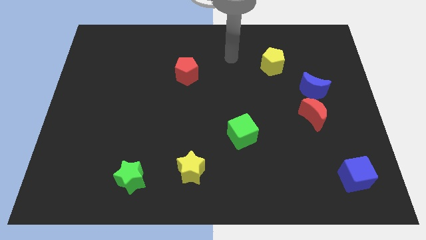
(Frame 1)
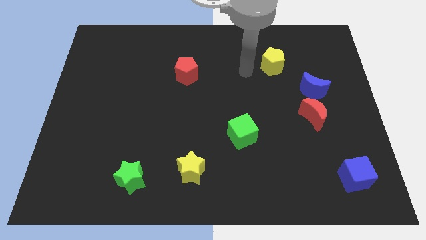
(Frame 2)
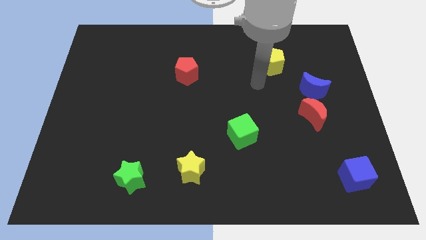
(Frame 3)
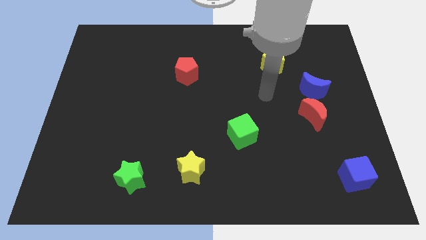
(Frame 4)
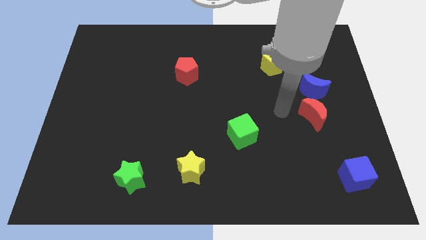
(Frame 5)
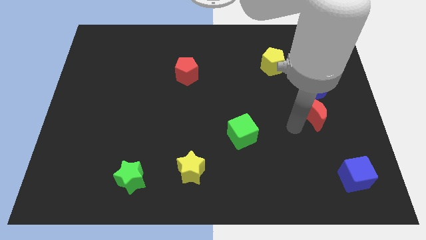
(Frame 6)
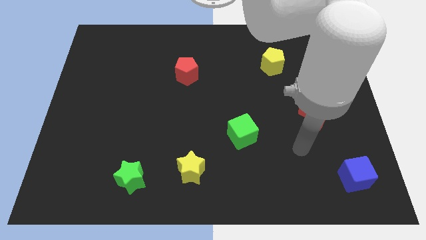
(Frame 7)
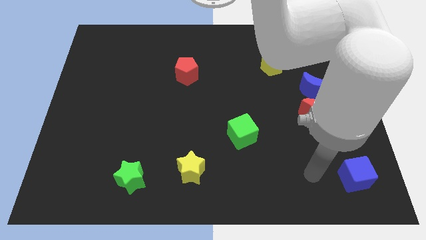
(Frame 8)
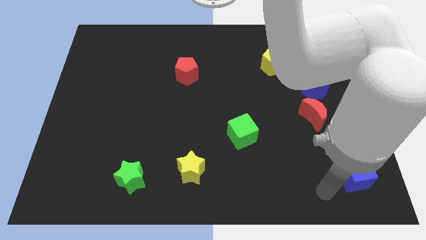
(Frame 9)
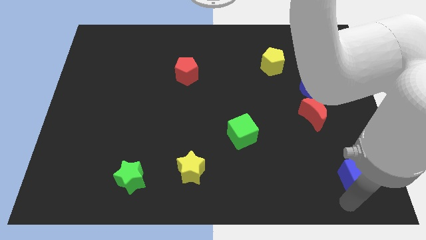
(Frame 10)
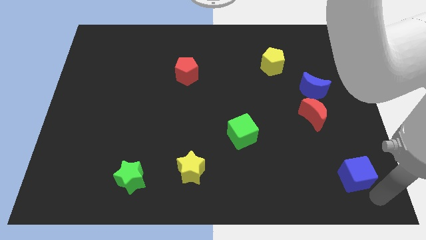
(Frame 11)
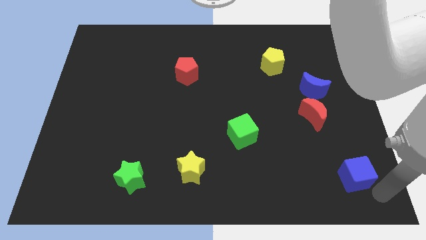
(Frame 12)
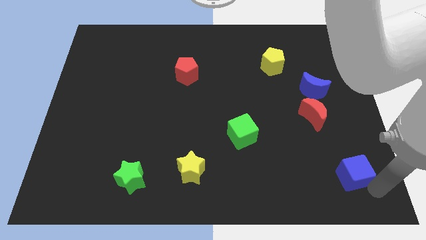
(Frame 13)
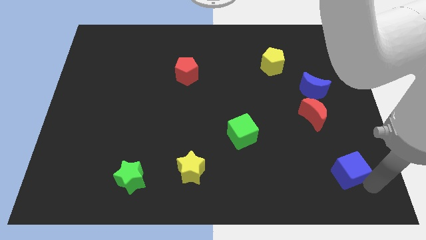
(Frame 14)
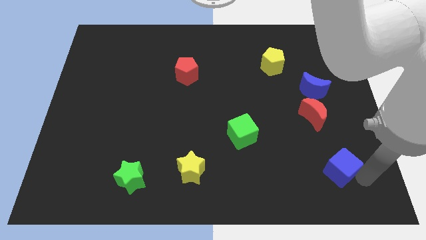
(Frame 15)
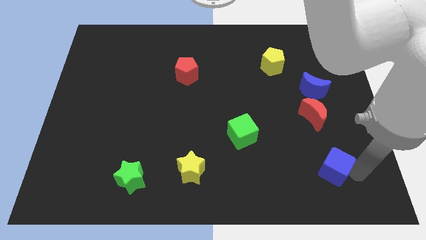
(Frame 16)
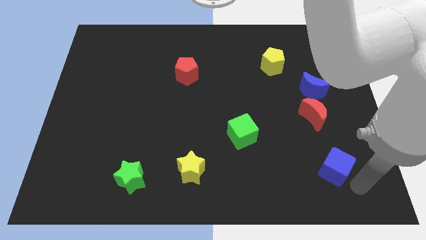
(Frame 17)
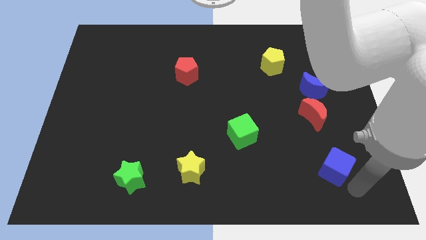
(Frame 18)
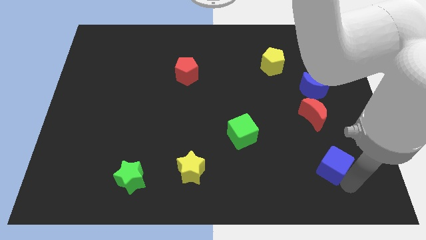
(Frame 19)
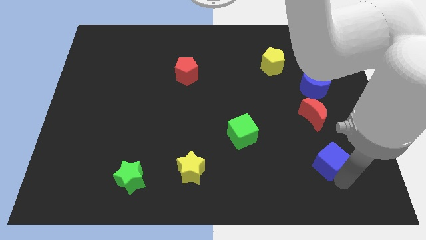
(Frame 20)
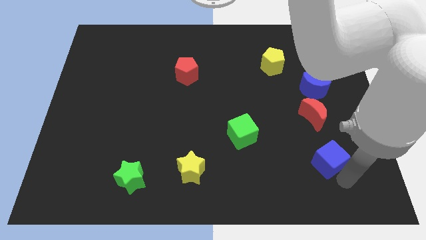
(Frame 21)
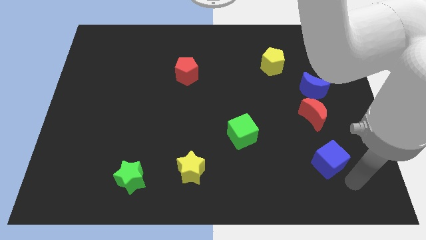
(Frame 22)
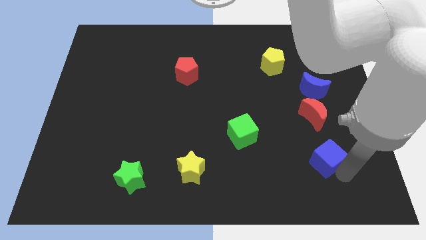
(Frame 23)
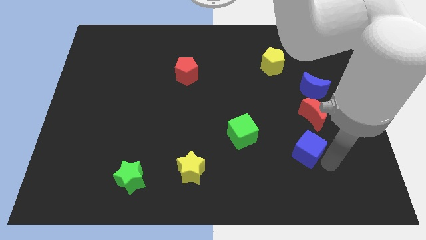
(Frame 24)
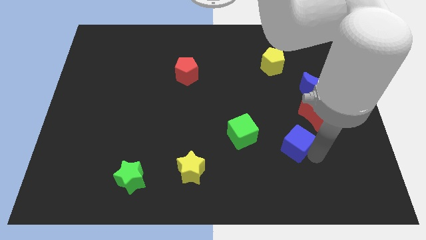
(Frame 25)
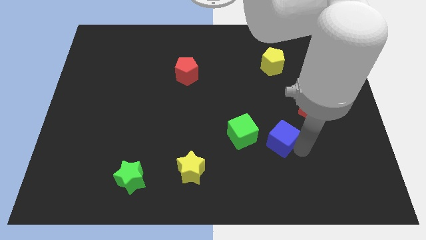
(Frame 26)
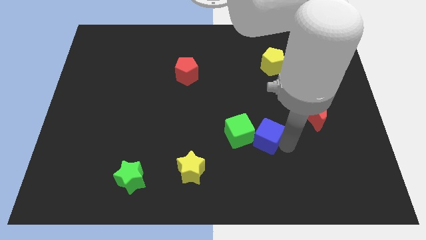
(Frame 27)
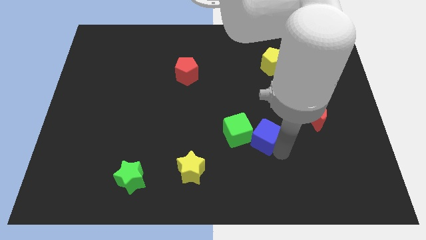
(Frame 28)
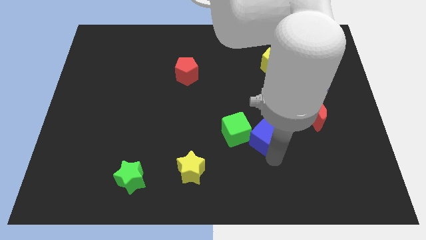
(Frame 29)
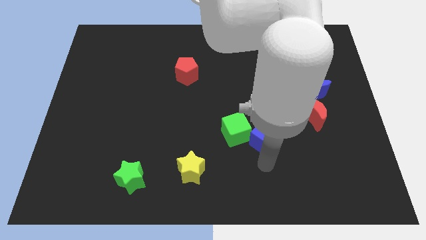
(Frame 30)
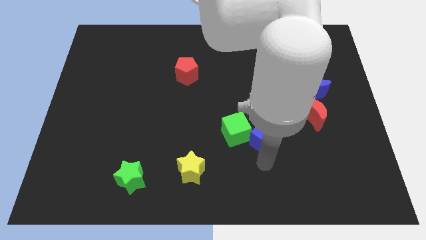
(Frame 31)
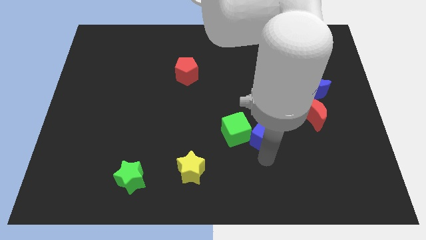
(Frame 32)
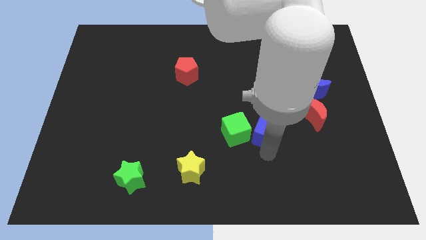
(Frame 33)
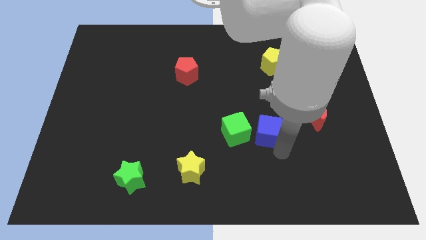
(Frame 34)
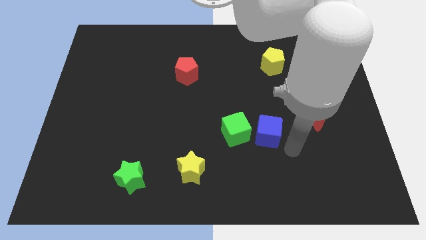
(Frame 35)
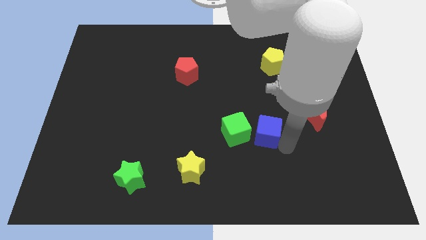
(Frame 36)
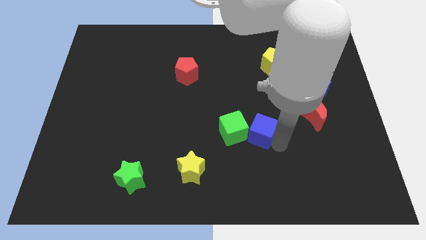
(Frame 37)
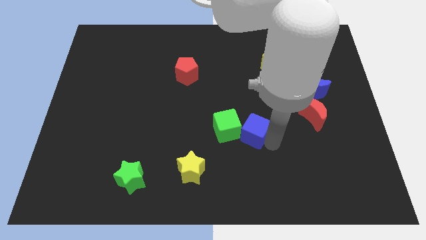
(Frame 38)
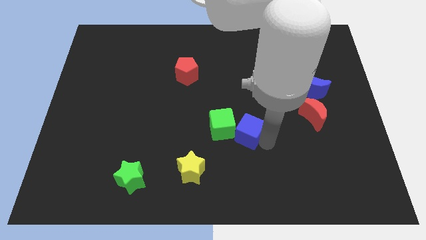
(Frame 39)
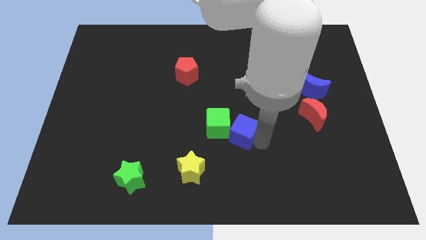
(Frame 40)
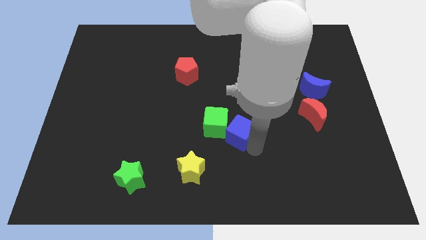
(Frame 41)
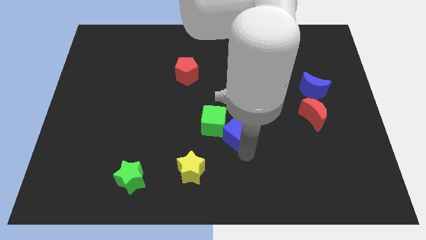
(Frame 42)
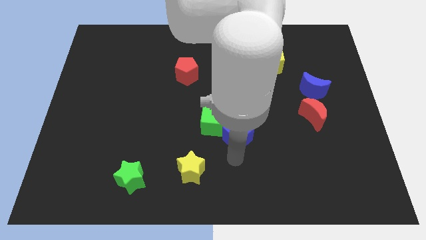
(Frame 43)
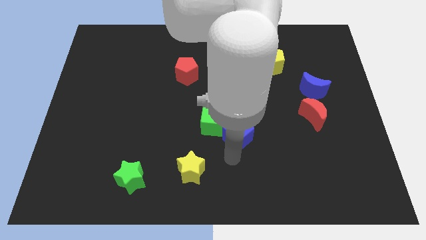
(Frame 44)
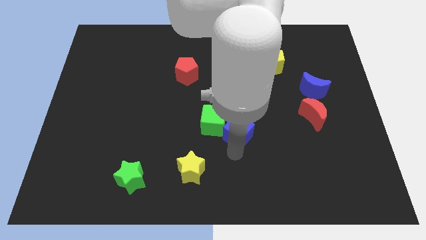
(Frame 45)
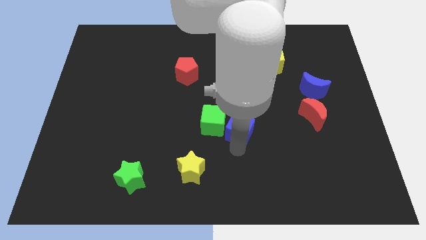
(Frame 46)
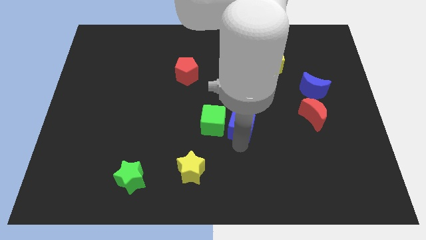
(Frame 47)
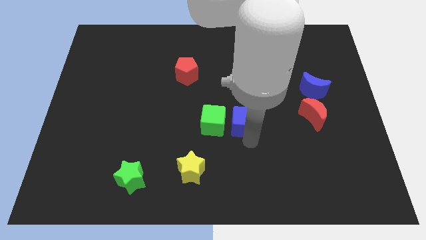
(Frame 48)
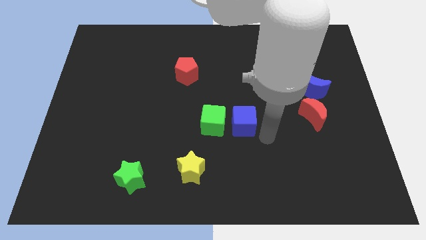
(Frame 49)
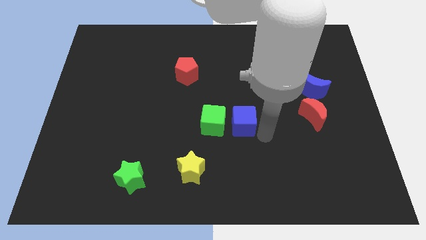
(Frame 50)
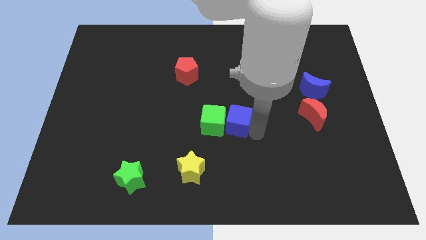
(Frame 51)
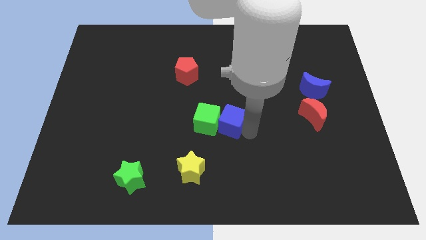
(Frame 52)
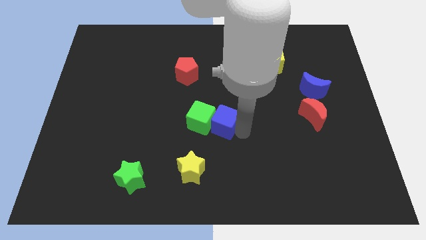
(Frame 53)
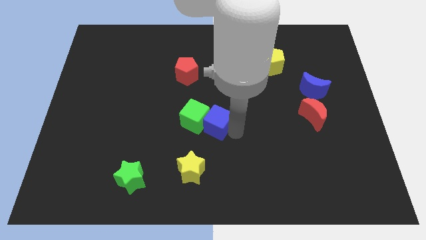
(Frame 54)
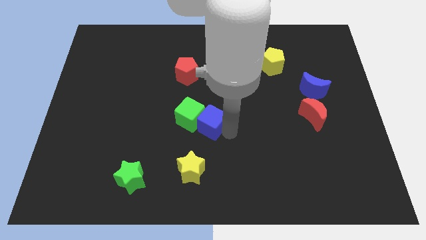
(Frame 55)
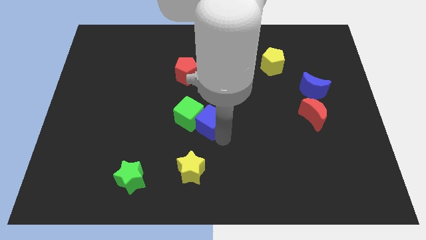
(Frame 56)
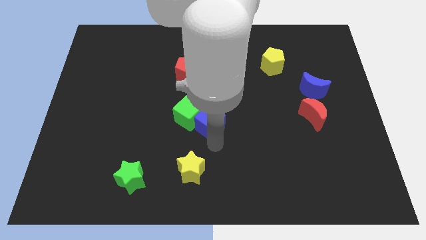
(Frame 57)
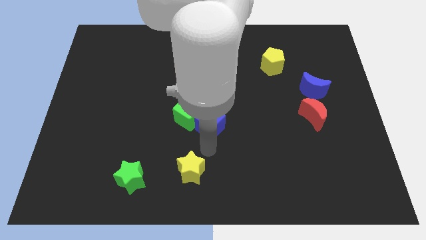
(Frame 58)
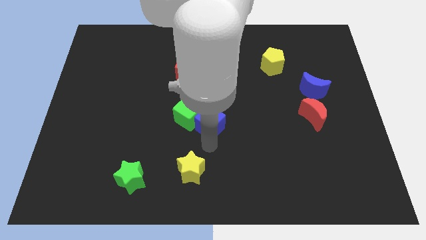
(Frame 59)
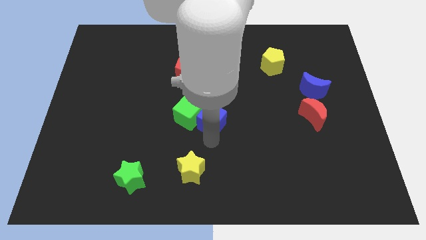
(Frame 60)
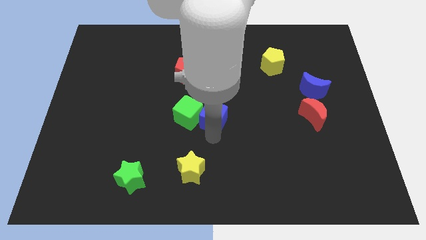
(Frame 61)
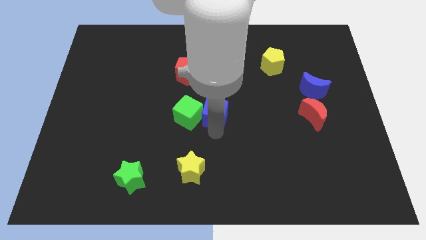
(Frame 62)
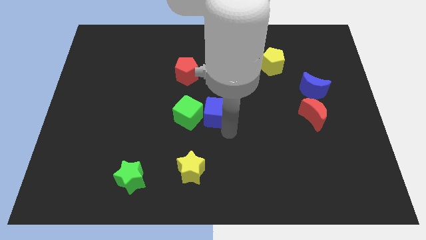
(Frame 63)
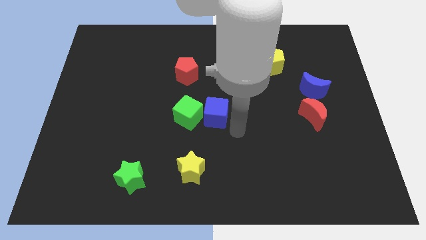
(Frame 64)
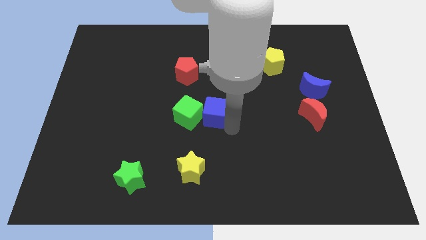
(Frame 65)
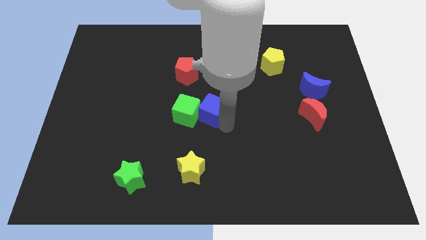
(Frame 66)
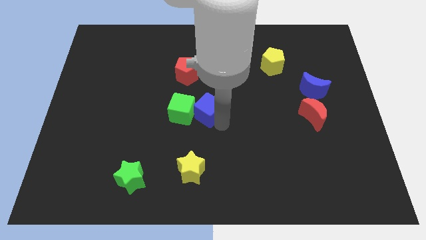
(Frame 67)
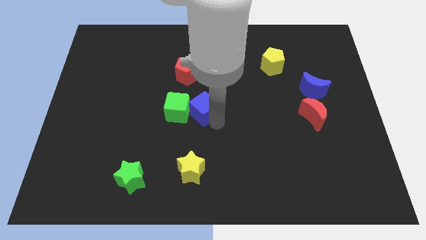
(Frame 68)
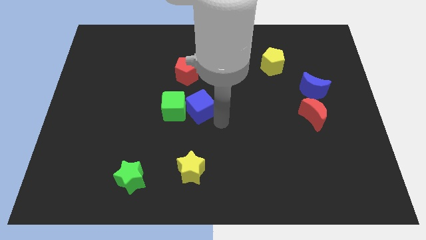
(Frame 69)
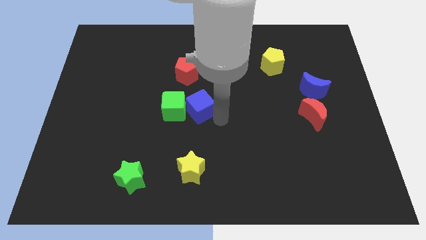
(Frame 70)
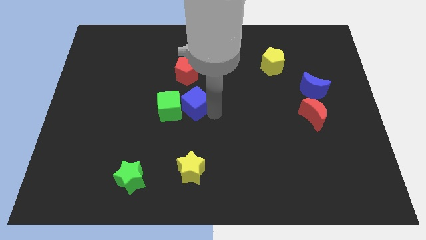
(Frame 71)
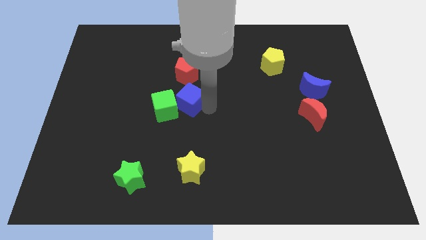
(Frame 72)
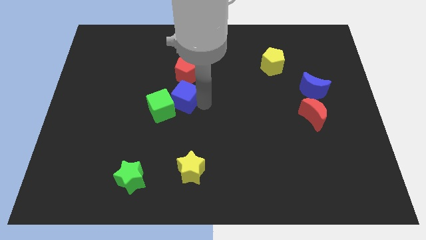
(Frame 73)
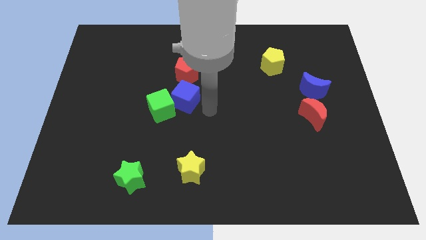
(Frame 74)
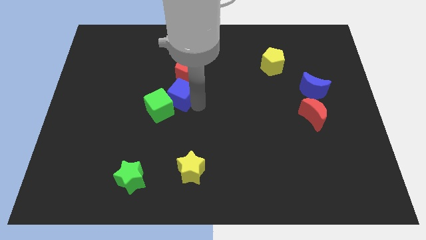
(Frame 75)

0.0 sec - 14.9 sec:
move the blue cube to the bottom left side of the red pentagon
